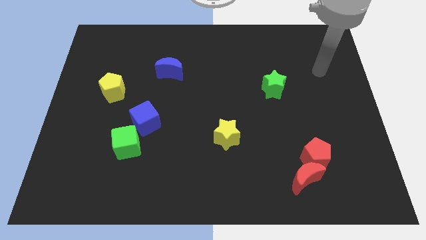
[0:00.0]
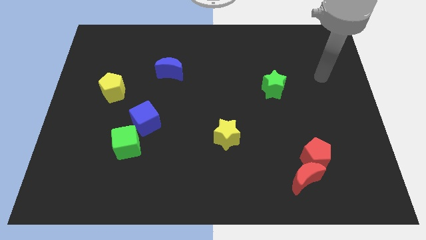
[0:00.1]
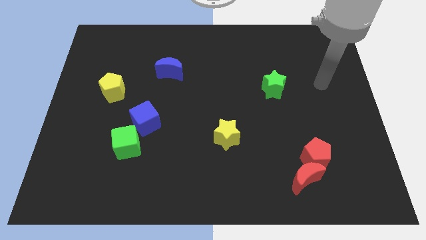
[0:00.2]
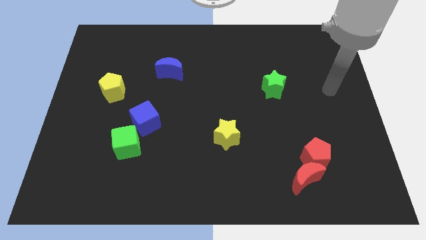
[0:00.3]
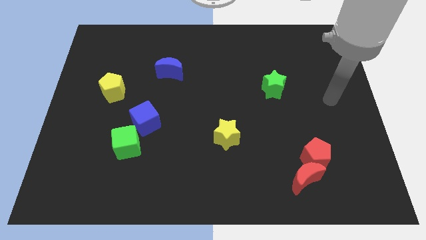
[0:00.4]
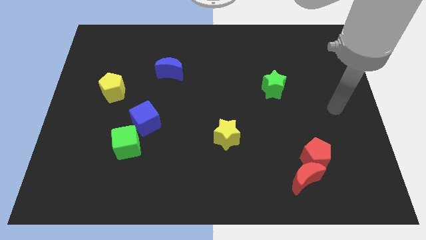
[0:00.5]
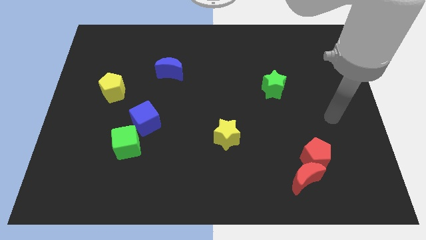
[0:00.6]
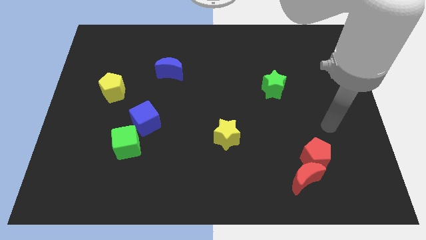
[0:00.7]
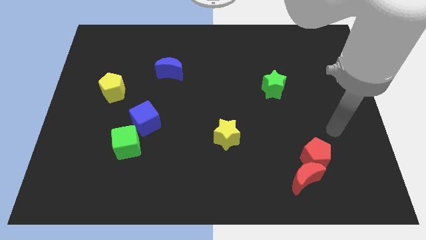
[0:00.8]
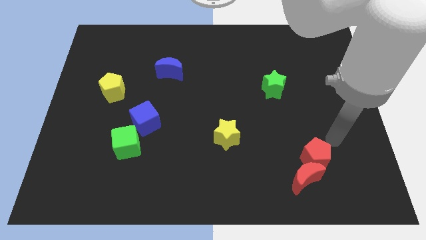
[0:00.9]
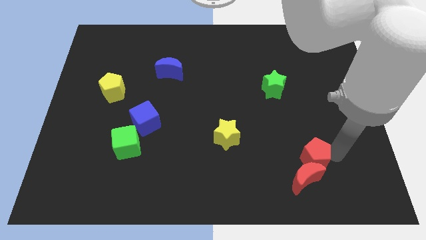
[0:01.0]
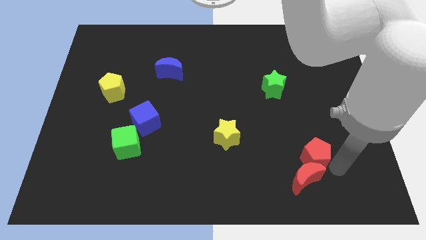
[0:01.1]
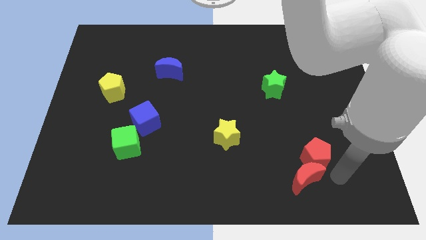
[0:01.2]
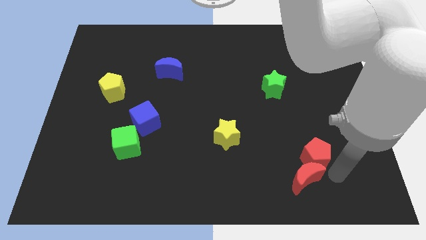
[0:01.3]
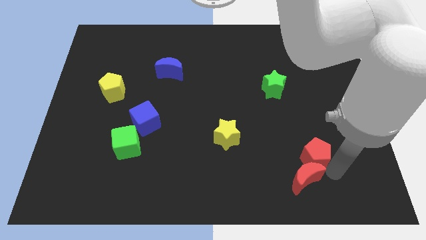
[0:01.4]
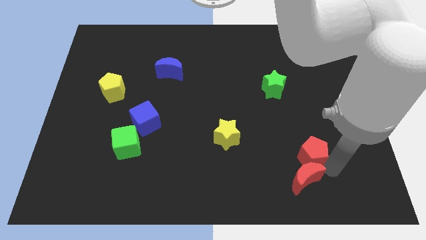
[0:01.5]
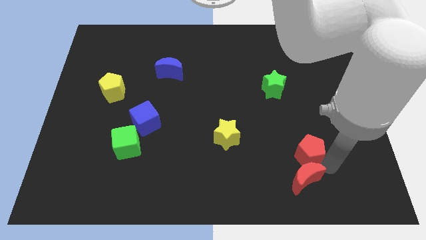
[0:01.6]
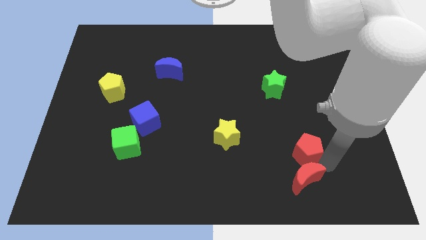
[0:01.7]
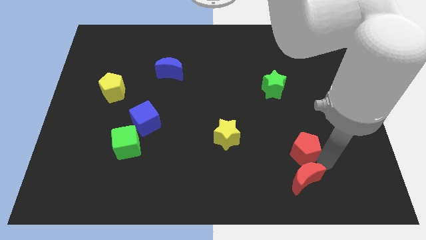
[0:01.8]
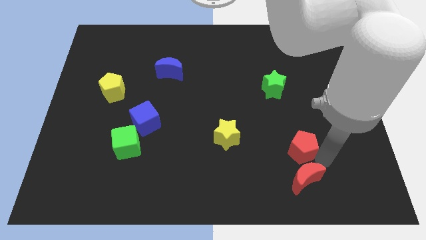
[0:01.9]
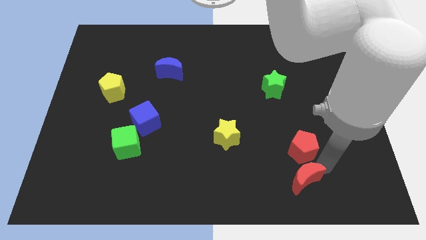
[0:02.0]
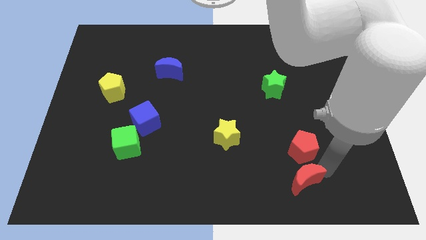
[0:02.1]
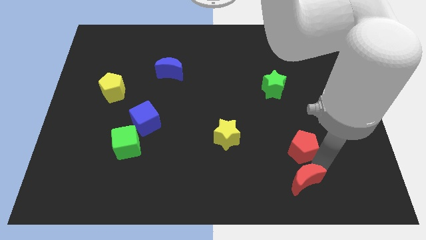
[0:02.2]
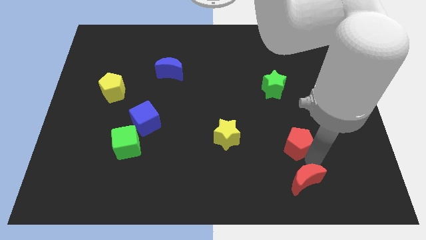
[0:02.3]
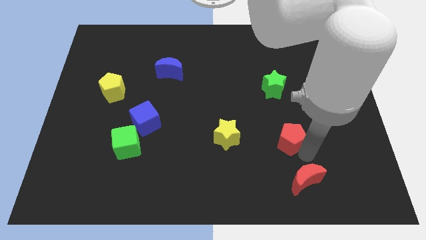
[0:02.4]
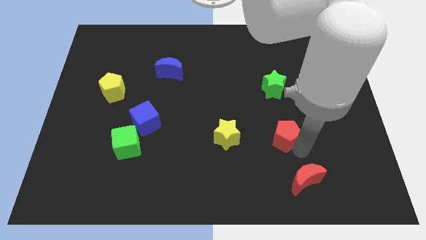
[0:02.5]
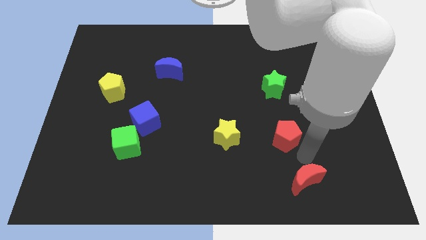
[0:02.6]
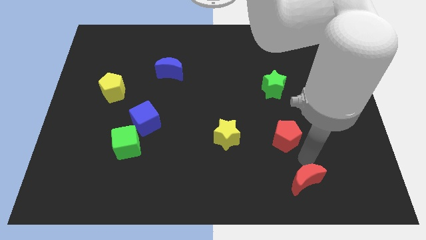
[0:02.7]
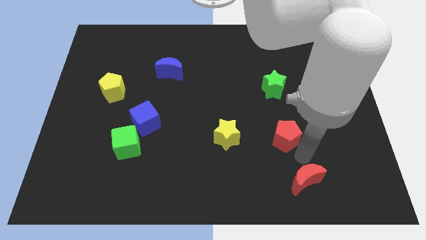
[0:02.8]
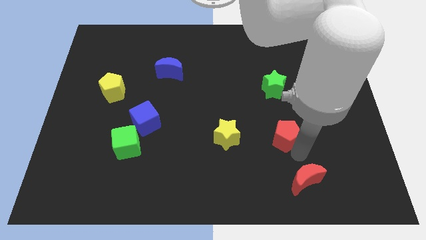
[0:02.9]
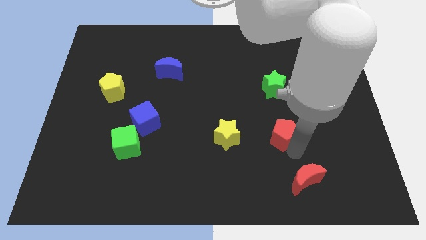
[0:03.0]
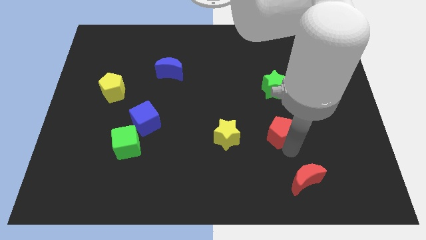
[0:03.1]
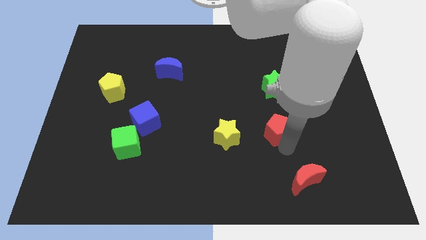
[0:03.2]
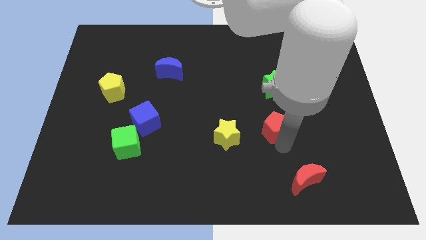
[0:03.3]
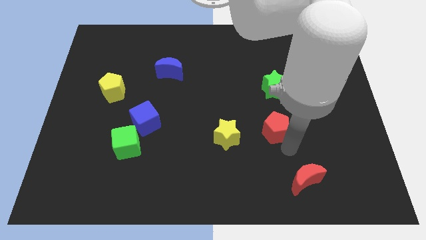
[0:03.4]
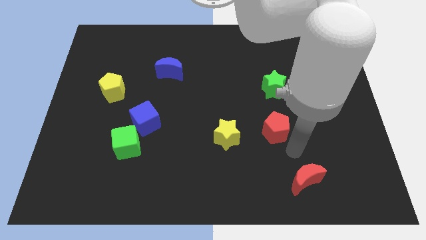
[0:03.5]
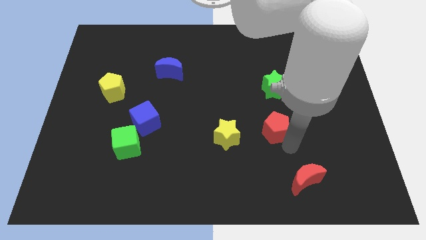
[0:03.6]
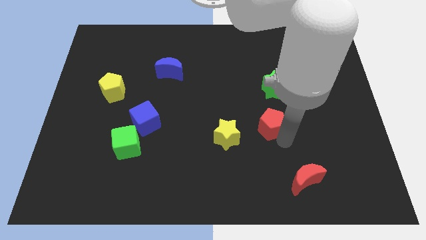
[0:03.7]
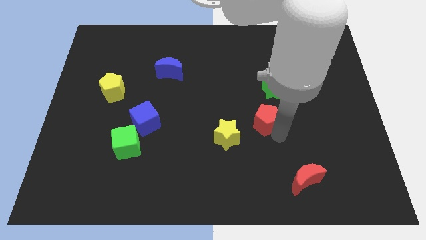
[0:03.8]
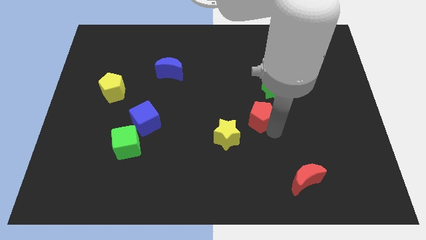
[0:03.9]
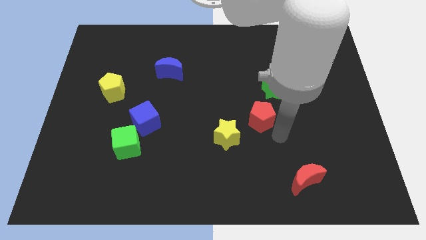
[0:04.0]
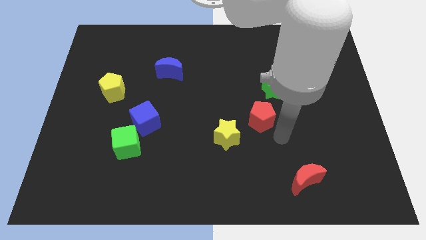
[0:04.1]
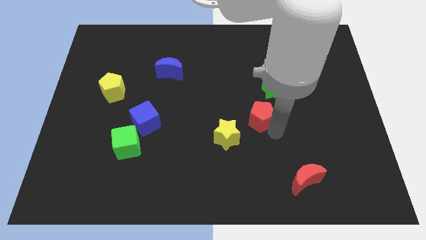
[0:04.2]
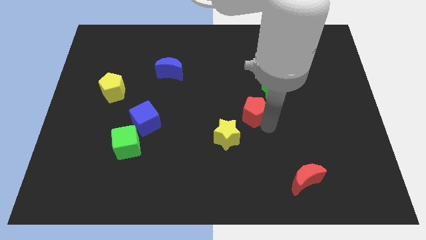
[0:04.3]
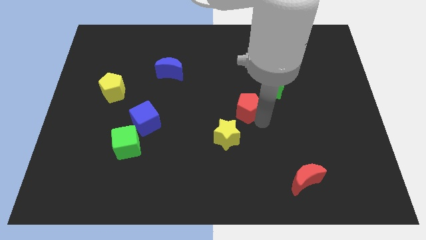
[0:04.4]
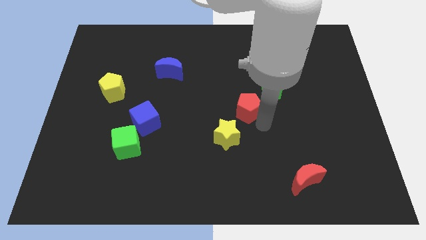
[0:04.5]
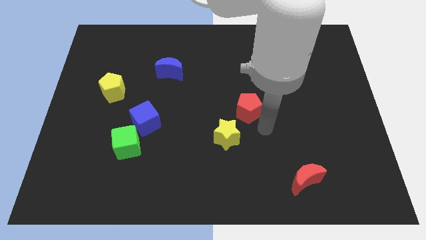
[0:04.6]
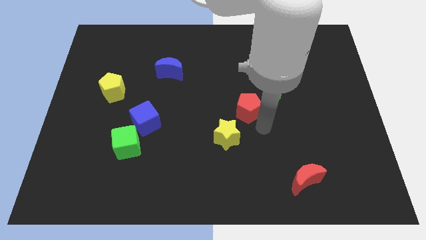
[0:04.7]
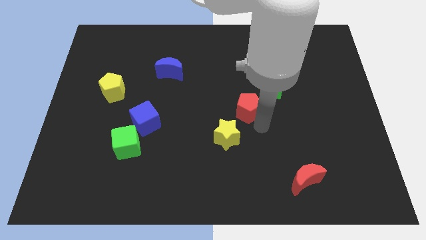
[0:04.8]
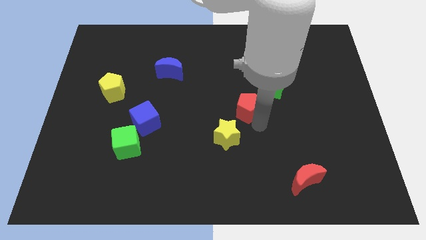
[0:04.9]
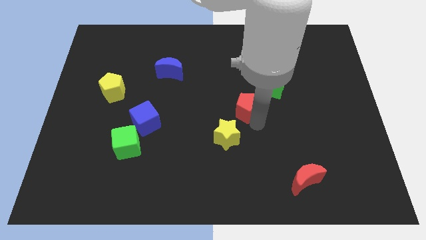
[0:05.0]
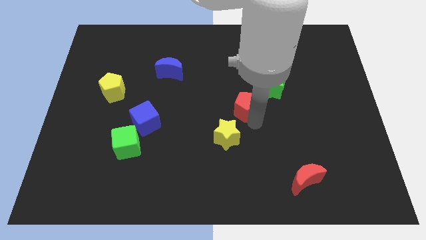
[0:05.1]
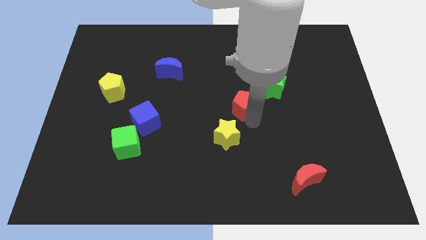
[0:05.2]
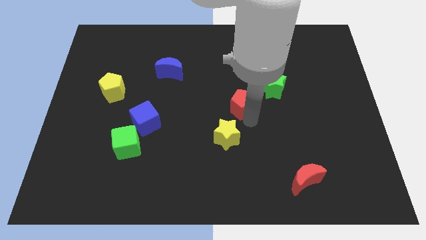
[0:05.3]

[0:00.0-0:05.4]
move the red pentagon up and left diagonally

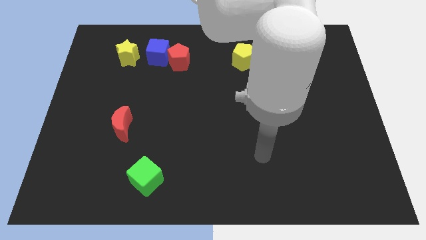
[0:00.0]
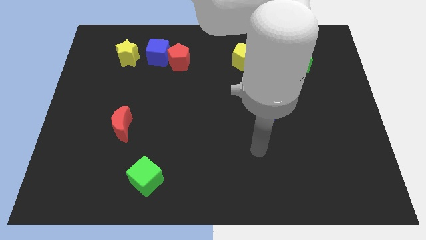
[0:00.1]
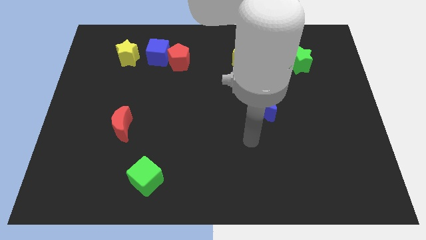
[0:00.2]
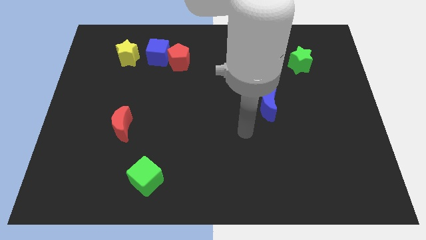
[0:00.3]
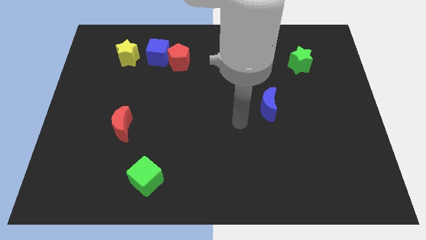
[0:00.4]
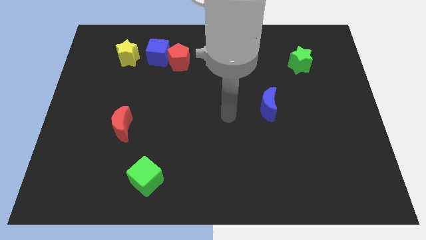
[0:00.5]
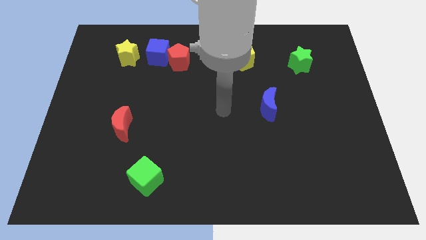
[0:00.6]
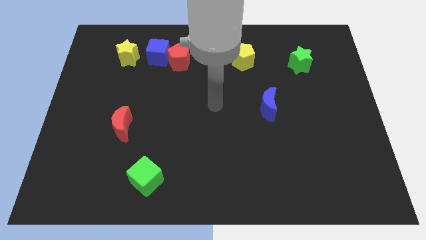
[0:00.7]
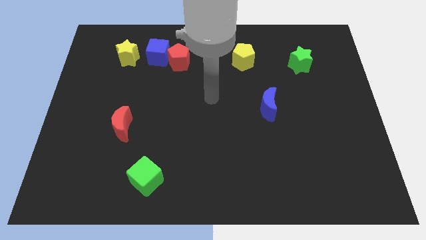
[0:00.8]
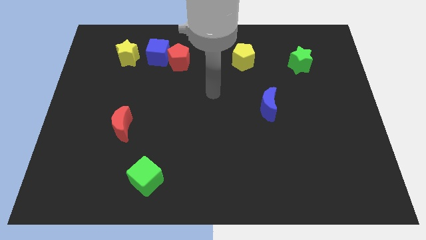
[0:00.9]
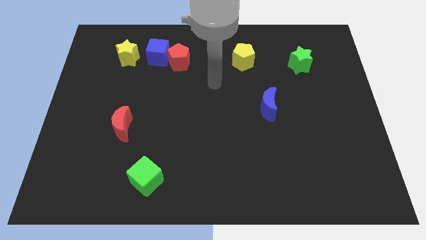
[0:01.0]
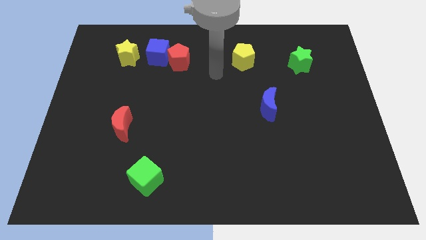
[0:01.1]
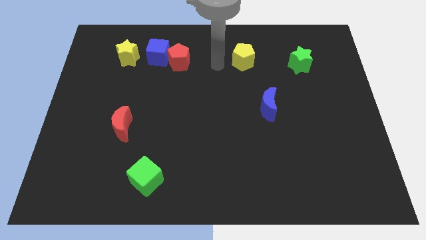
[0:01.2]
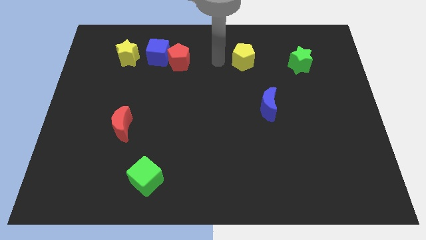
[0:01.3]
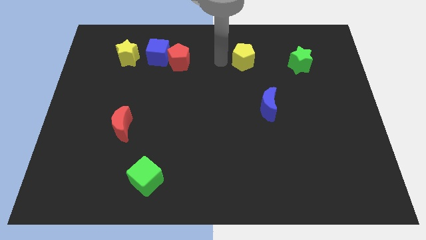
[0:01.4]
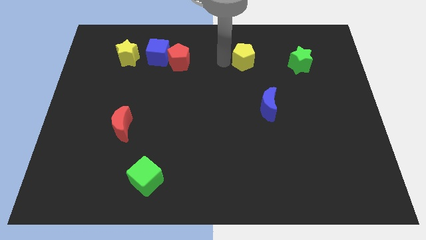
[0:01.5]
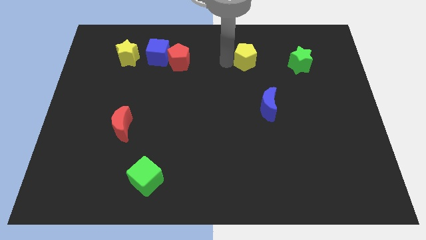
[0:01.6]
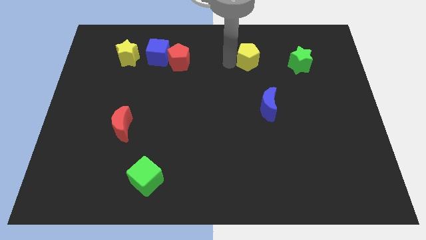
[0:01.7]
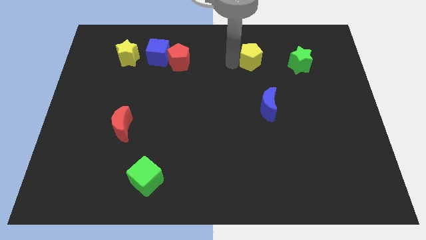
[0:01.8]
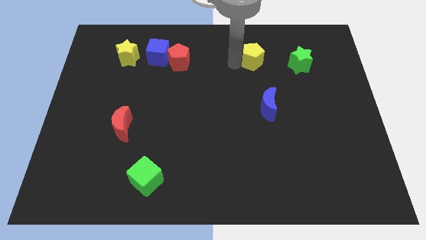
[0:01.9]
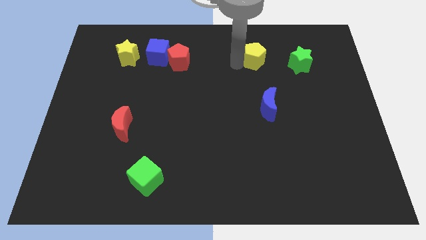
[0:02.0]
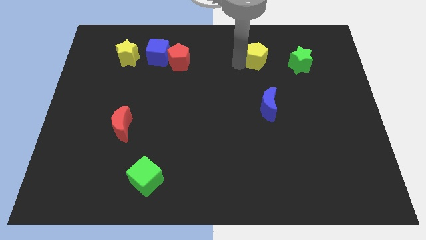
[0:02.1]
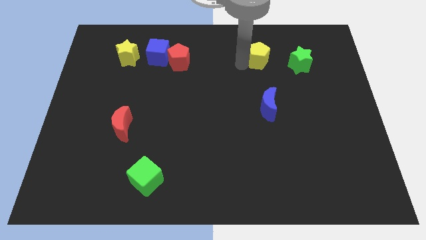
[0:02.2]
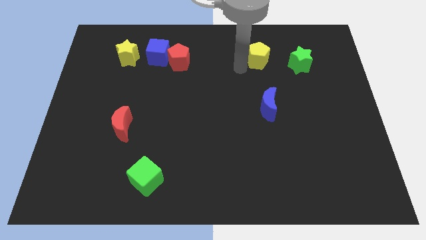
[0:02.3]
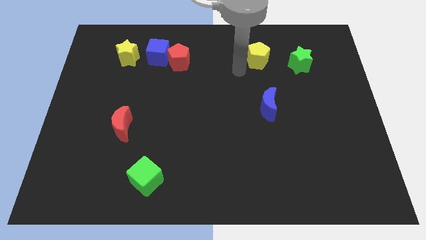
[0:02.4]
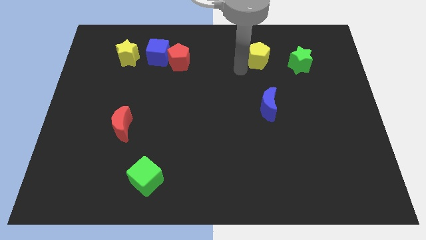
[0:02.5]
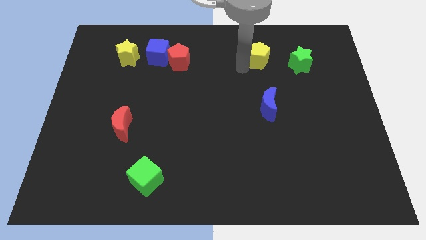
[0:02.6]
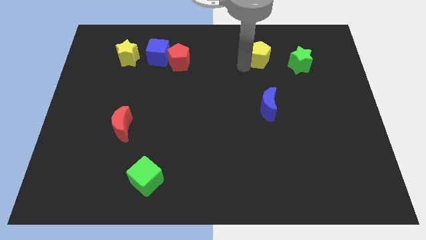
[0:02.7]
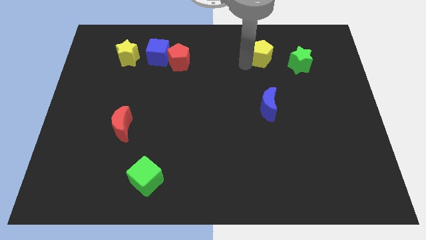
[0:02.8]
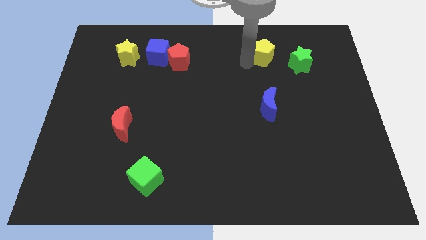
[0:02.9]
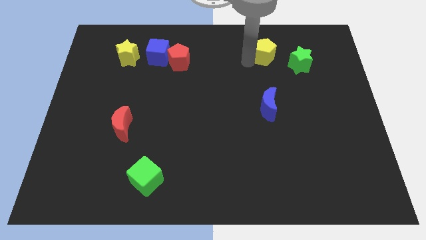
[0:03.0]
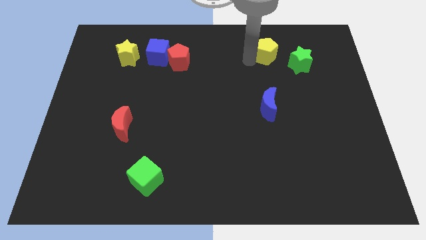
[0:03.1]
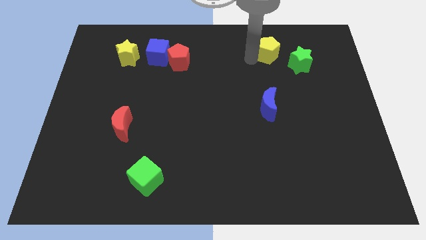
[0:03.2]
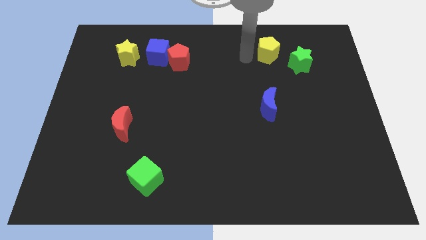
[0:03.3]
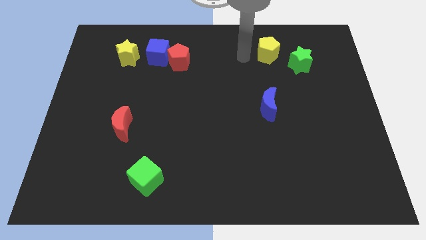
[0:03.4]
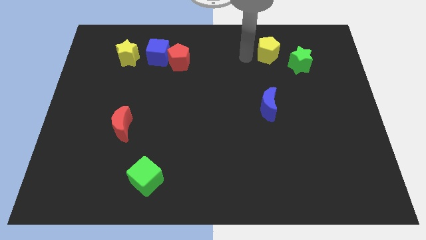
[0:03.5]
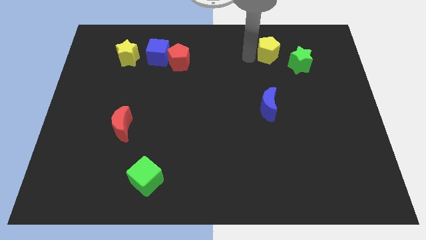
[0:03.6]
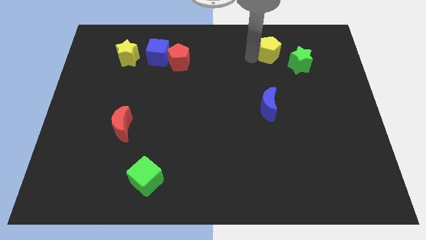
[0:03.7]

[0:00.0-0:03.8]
move the yellow pentagon to the right a little
